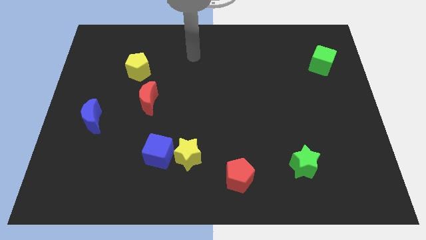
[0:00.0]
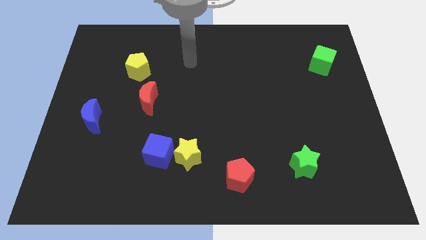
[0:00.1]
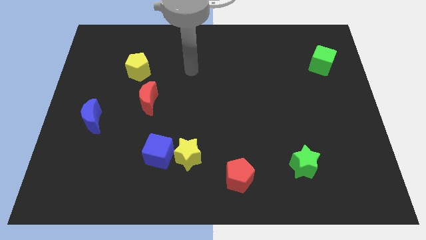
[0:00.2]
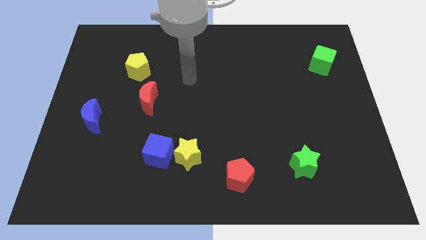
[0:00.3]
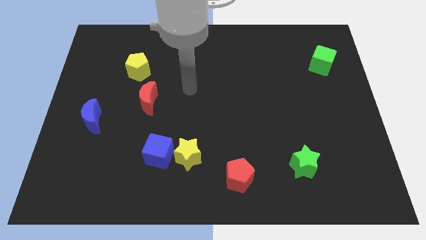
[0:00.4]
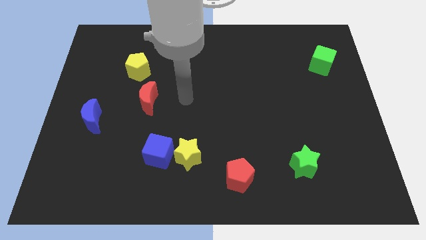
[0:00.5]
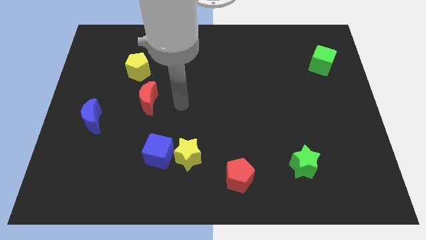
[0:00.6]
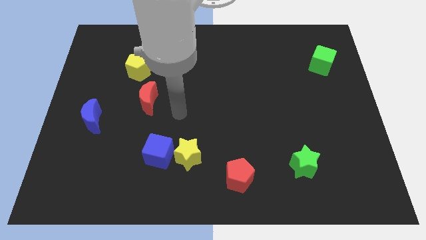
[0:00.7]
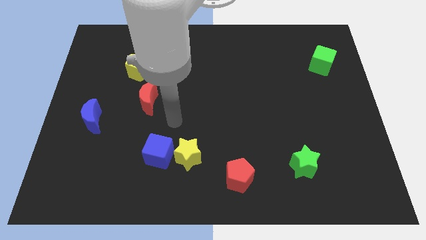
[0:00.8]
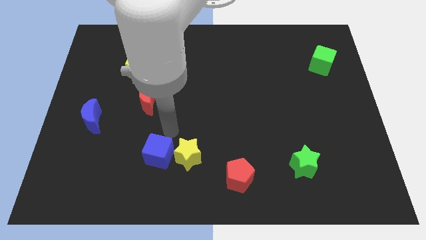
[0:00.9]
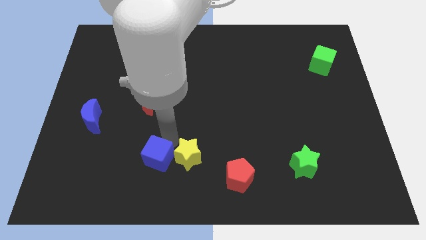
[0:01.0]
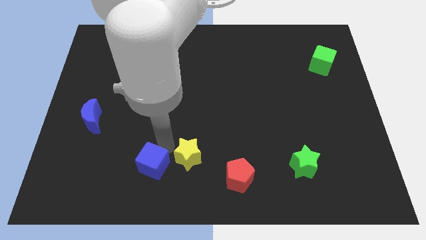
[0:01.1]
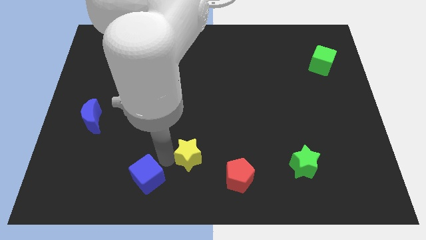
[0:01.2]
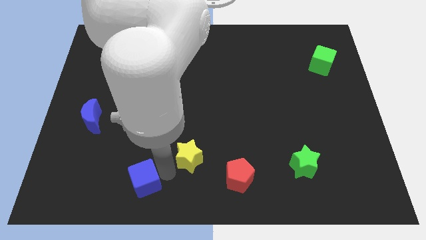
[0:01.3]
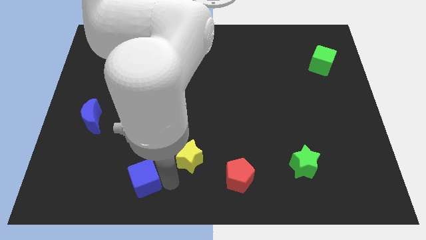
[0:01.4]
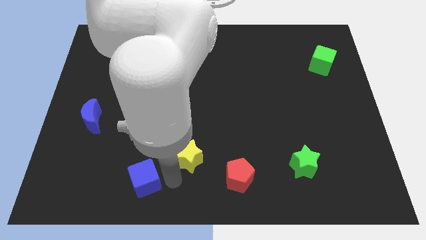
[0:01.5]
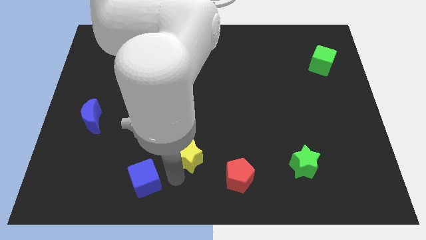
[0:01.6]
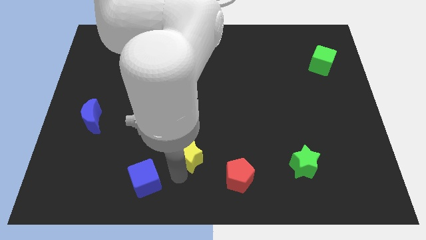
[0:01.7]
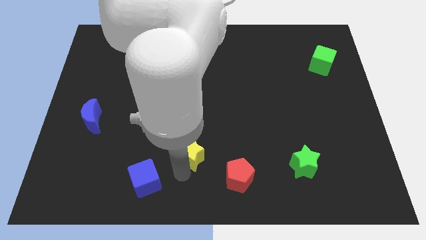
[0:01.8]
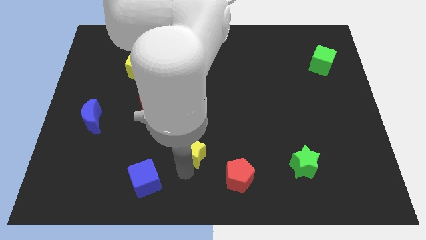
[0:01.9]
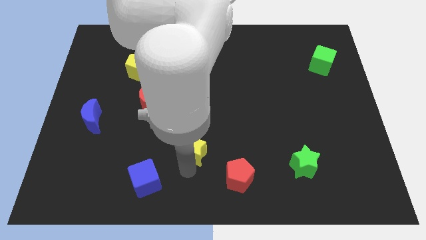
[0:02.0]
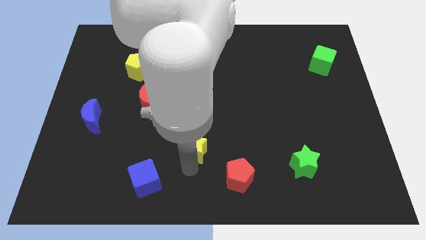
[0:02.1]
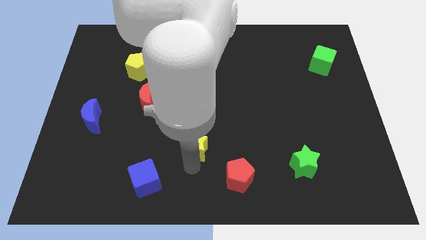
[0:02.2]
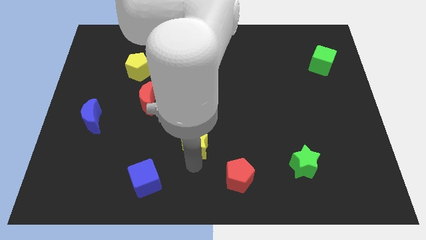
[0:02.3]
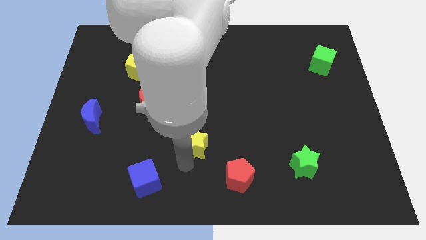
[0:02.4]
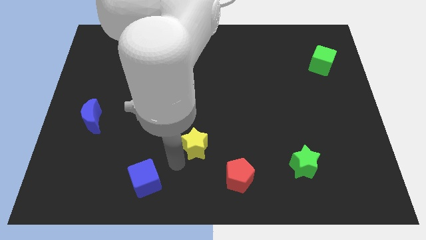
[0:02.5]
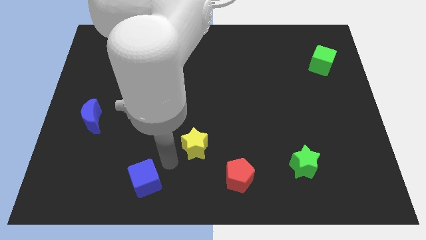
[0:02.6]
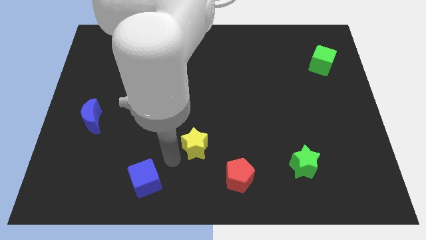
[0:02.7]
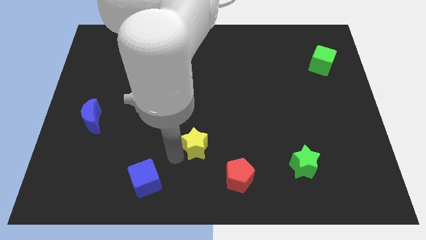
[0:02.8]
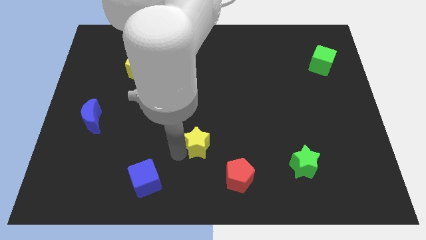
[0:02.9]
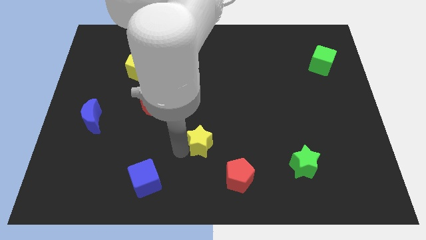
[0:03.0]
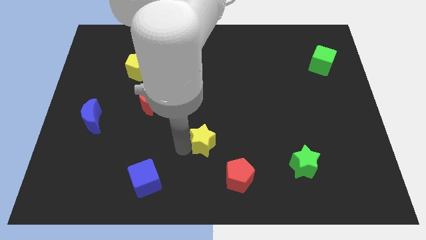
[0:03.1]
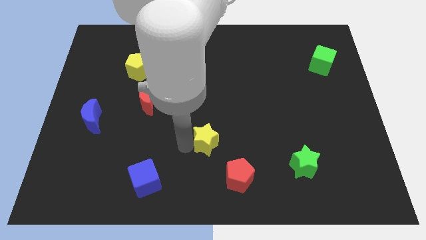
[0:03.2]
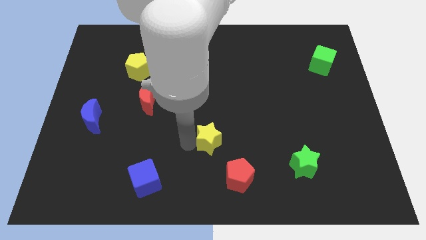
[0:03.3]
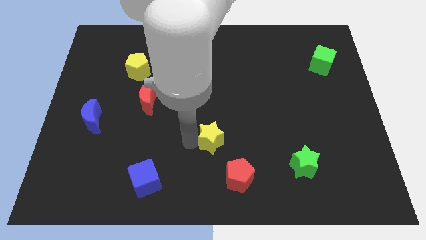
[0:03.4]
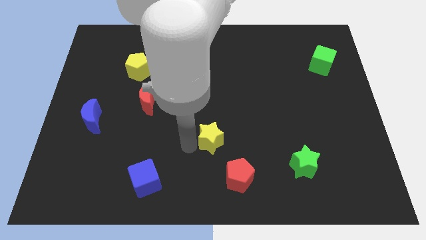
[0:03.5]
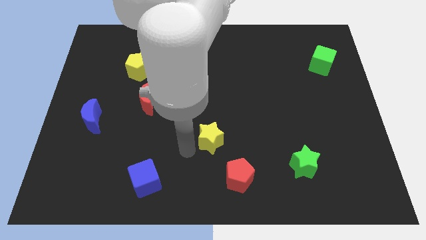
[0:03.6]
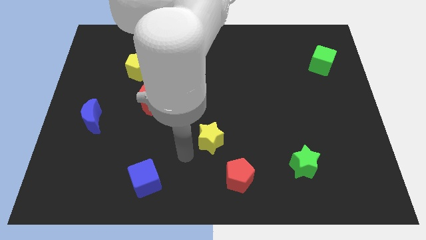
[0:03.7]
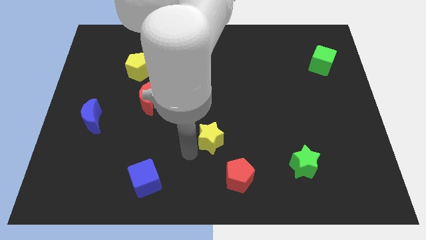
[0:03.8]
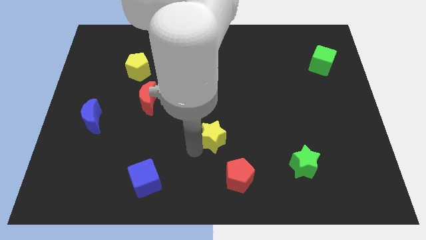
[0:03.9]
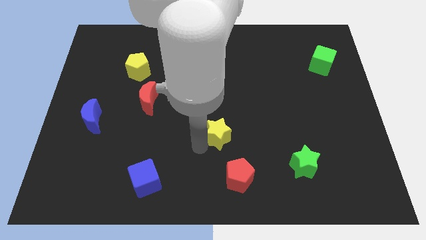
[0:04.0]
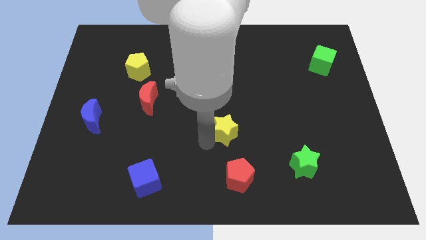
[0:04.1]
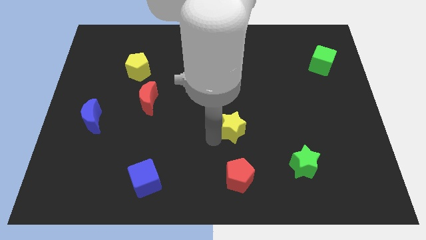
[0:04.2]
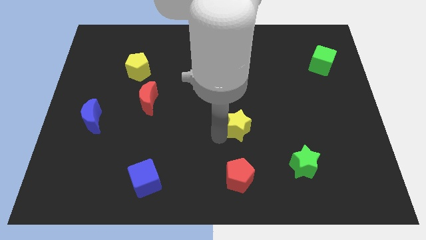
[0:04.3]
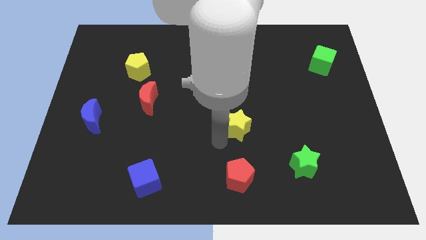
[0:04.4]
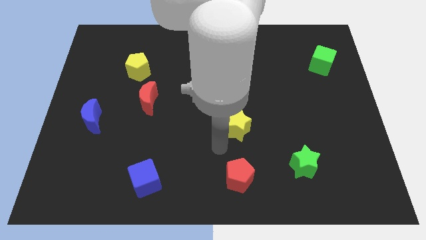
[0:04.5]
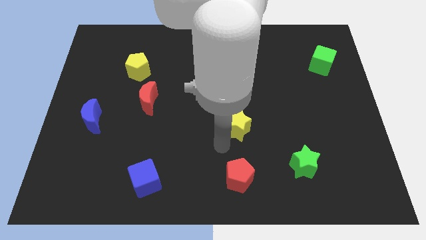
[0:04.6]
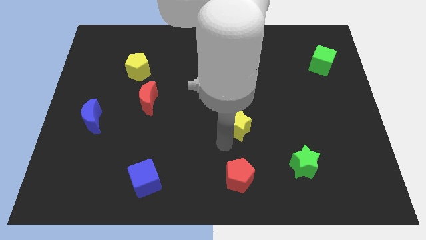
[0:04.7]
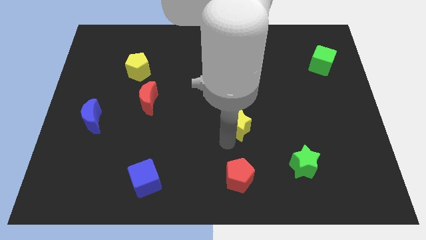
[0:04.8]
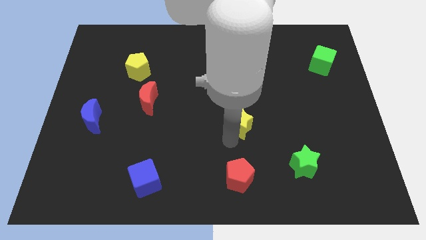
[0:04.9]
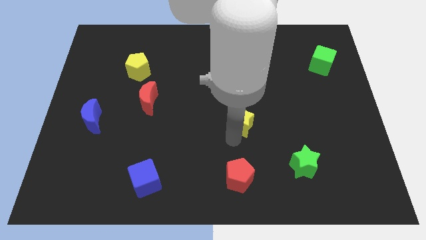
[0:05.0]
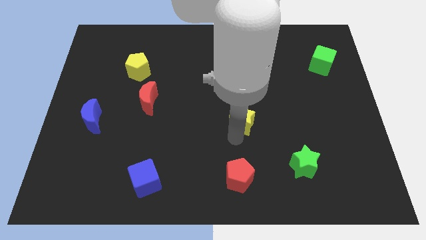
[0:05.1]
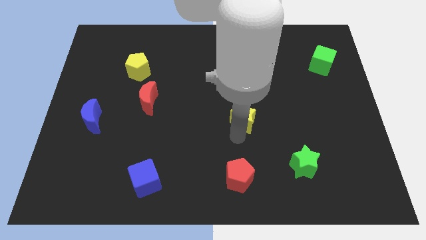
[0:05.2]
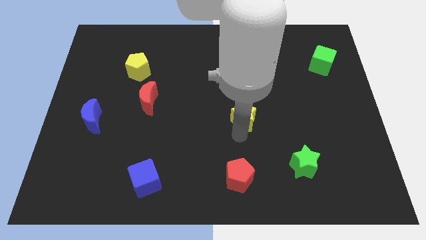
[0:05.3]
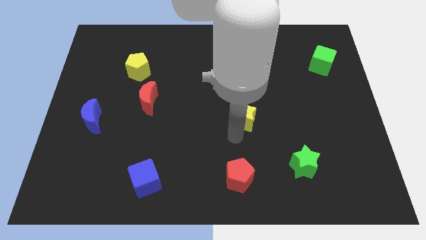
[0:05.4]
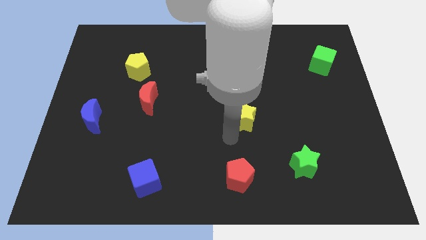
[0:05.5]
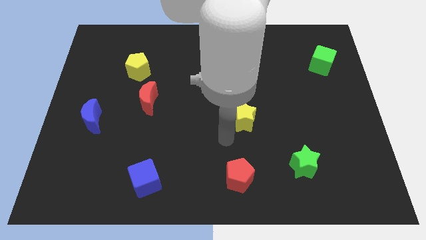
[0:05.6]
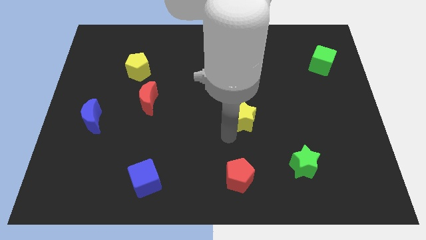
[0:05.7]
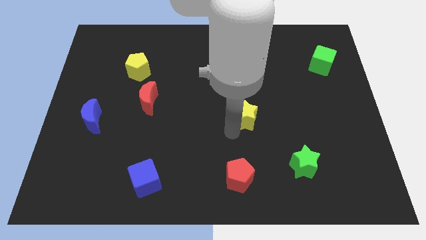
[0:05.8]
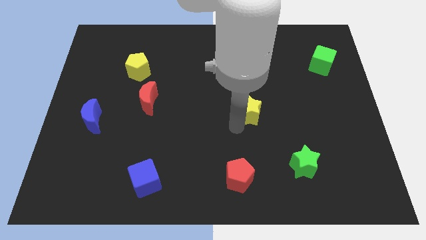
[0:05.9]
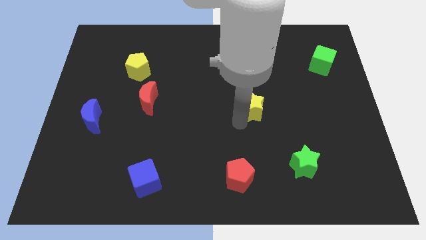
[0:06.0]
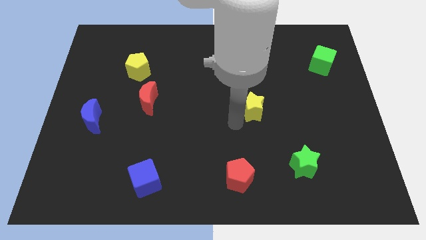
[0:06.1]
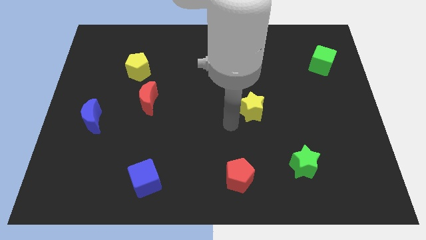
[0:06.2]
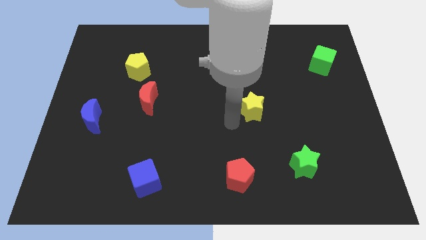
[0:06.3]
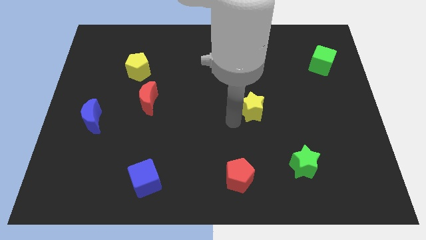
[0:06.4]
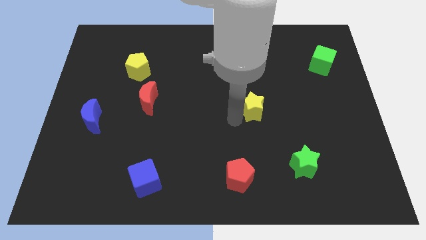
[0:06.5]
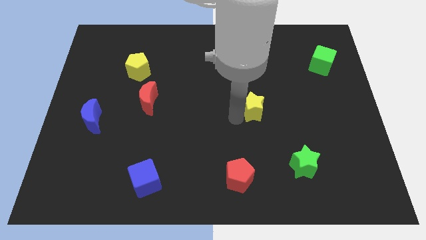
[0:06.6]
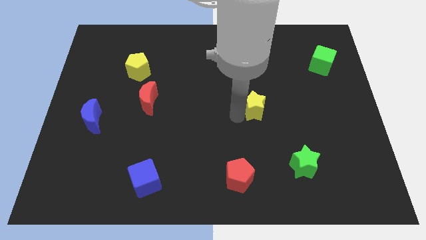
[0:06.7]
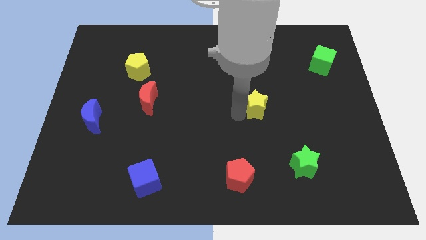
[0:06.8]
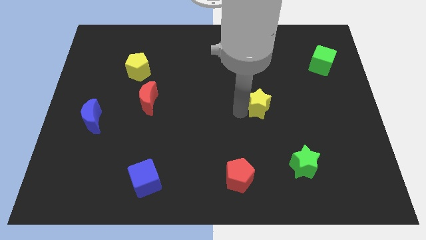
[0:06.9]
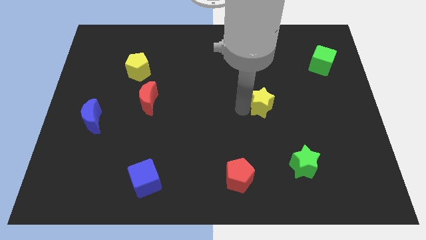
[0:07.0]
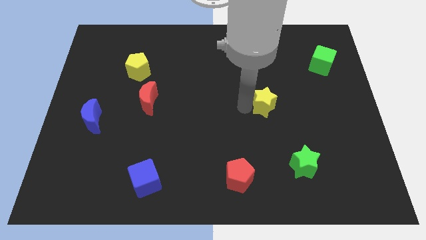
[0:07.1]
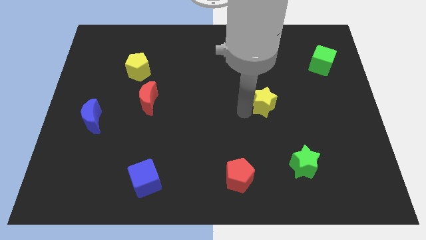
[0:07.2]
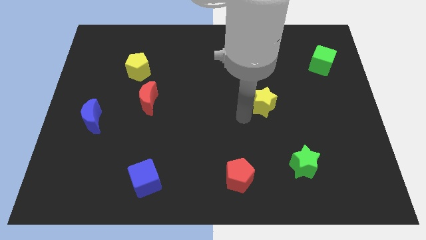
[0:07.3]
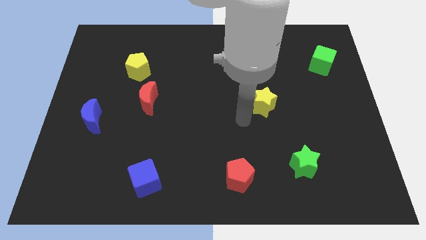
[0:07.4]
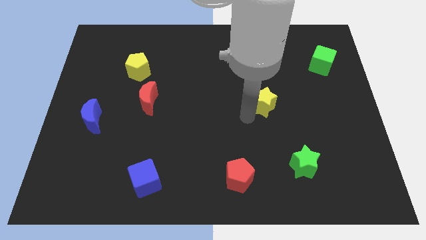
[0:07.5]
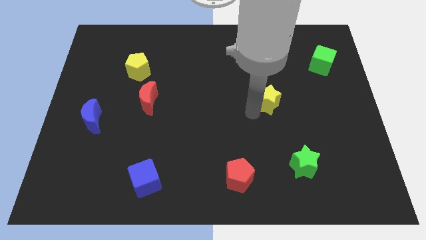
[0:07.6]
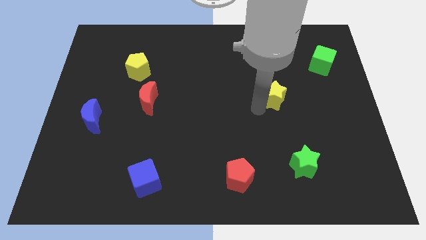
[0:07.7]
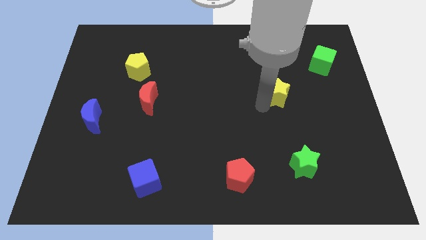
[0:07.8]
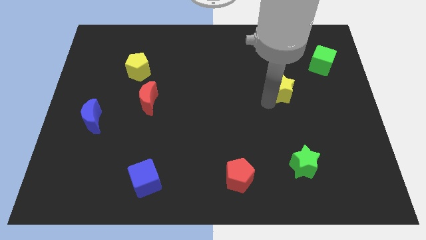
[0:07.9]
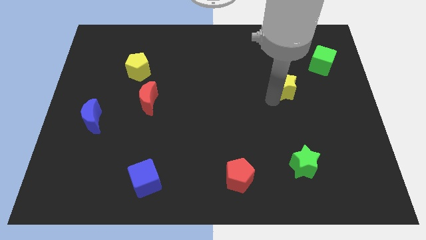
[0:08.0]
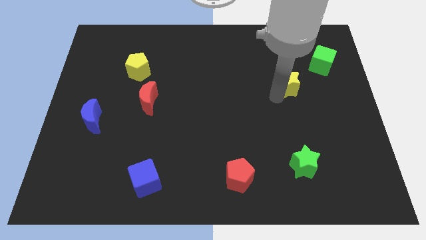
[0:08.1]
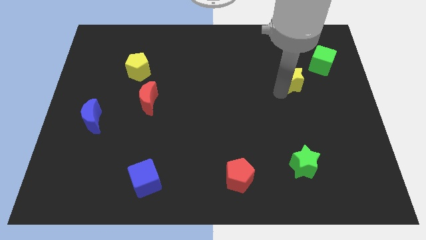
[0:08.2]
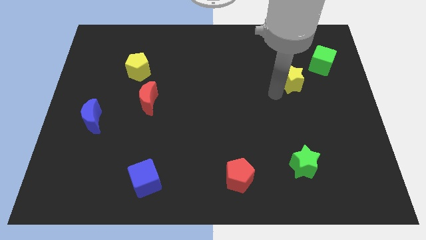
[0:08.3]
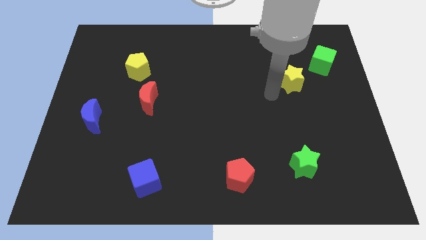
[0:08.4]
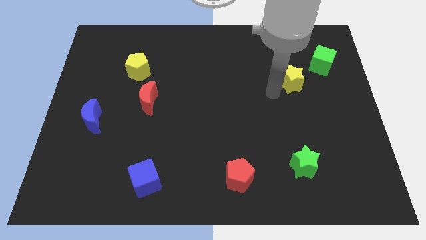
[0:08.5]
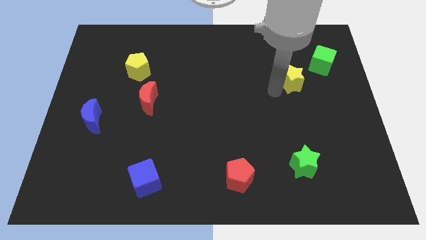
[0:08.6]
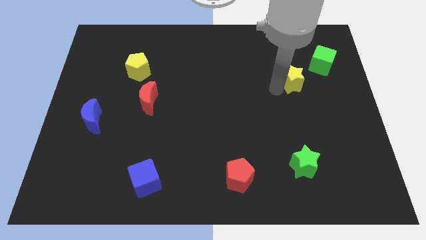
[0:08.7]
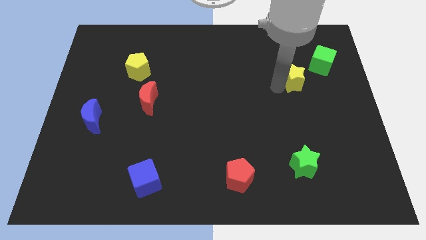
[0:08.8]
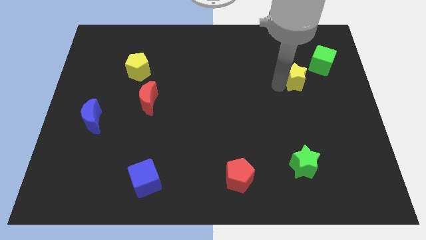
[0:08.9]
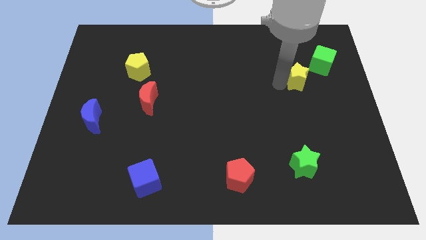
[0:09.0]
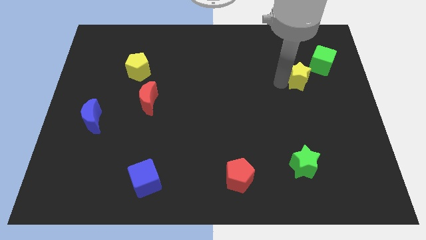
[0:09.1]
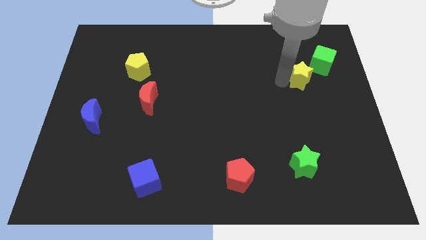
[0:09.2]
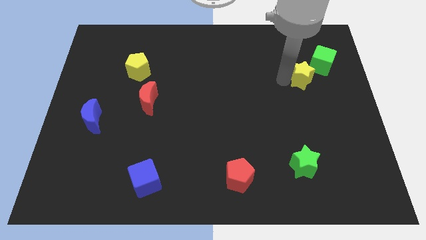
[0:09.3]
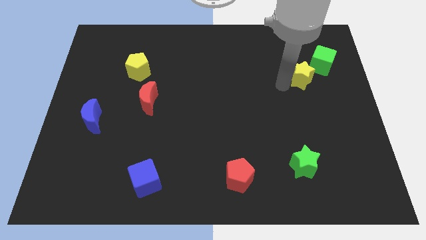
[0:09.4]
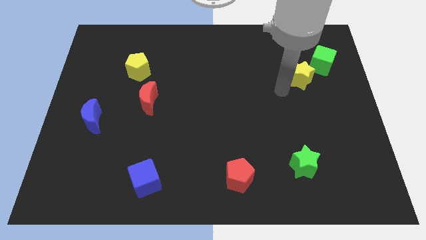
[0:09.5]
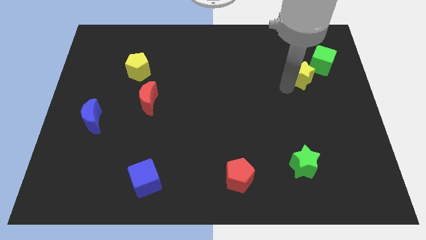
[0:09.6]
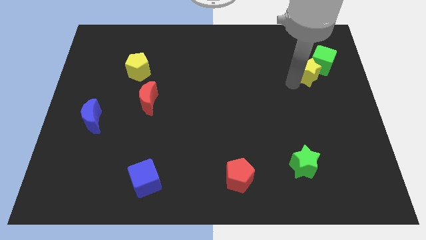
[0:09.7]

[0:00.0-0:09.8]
put the yellow star to the green cube
